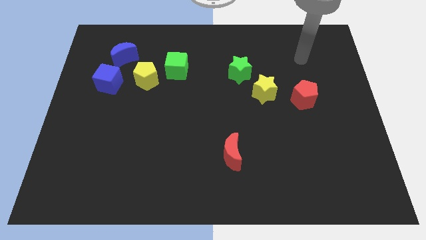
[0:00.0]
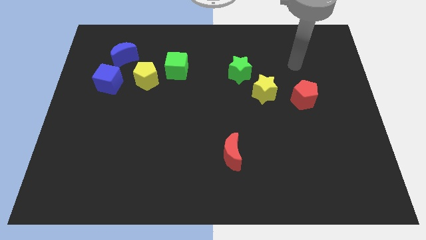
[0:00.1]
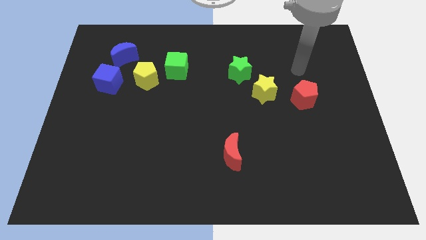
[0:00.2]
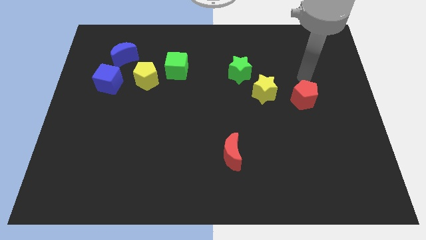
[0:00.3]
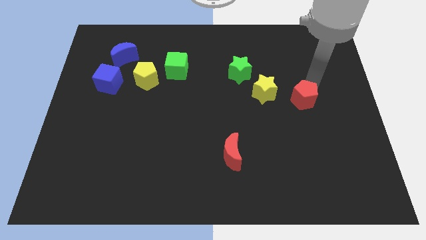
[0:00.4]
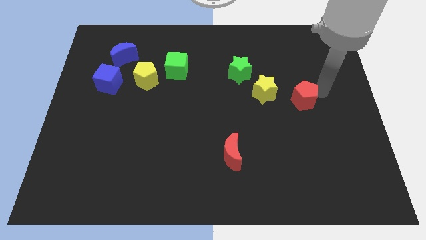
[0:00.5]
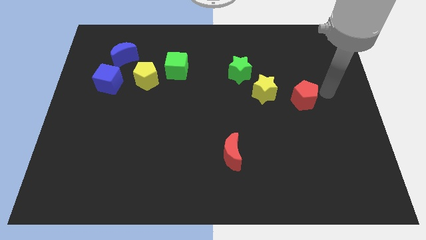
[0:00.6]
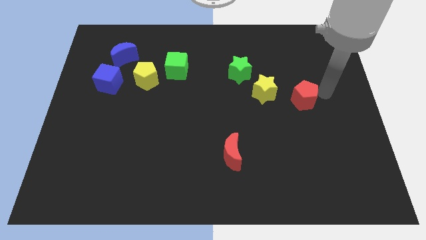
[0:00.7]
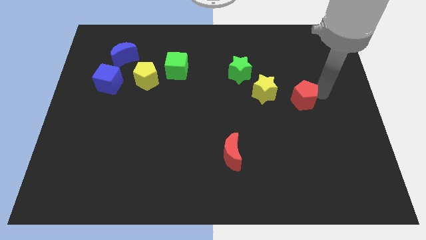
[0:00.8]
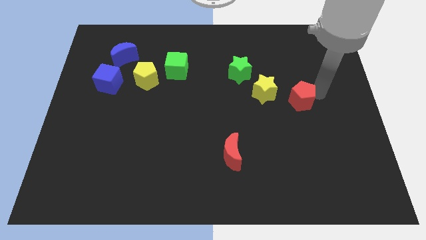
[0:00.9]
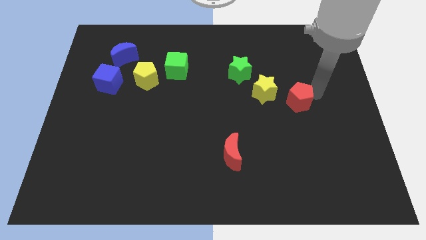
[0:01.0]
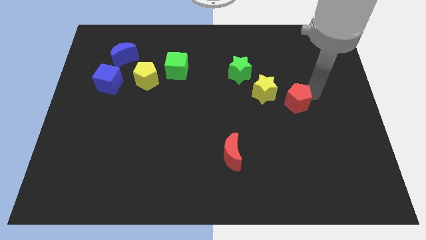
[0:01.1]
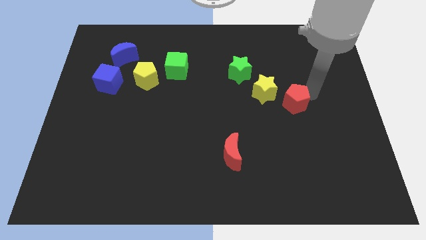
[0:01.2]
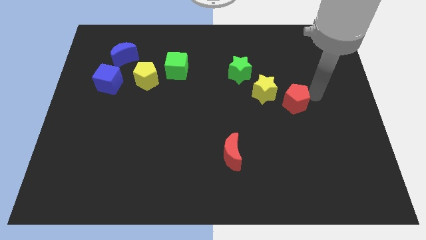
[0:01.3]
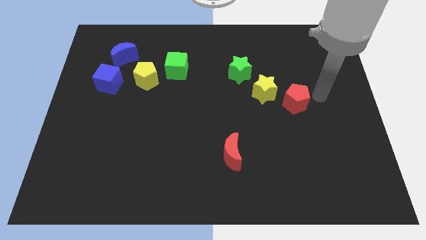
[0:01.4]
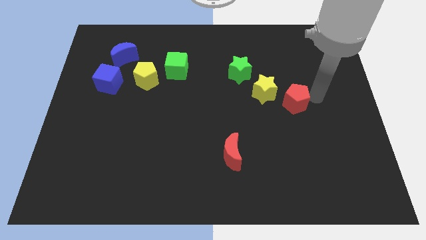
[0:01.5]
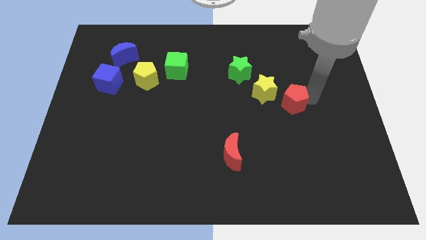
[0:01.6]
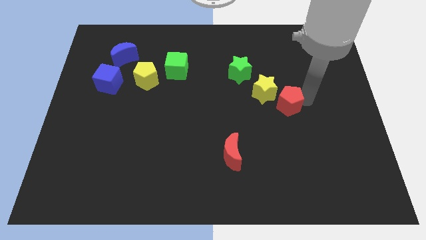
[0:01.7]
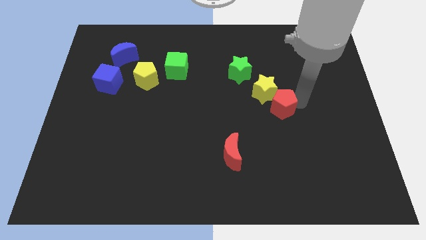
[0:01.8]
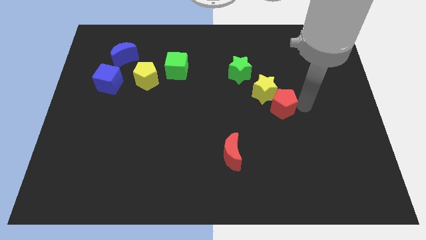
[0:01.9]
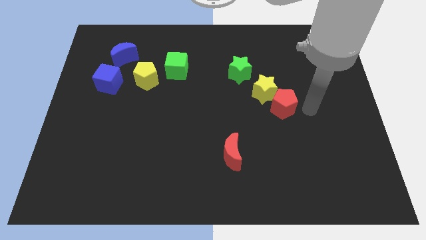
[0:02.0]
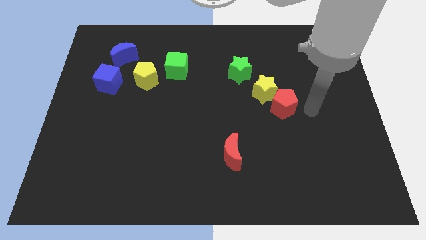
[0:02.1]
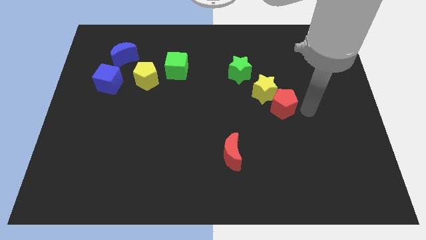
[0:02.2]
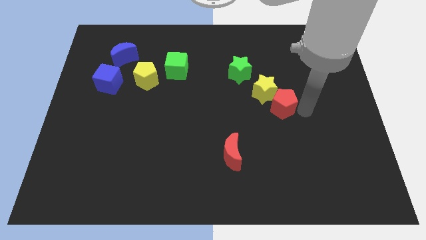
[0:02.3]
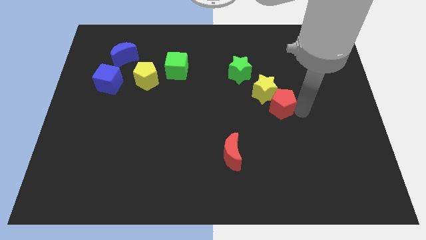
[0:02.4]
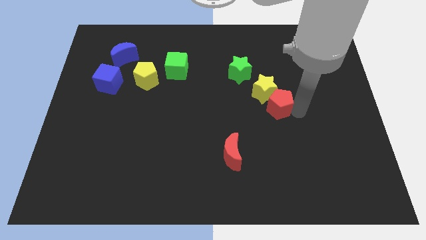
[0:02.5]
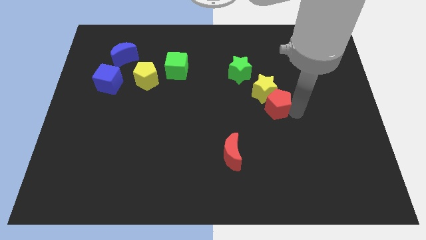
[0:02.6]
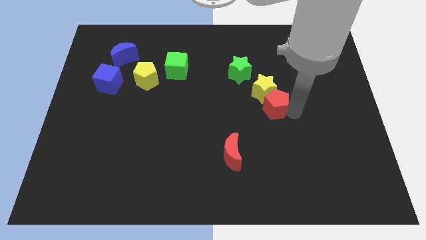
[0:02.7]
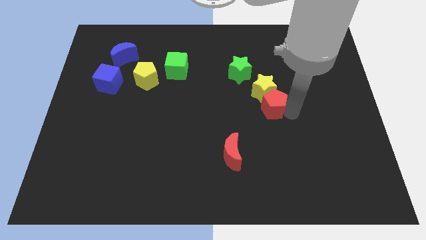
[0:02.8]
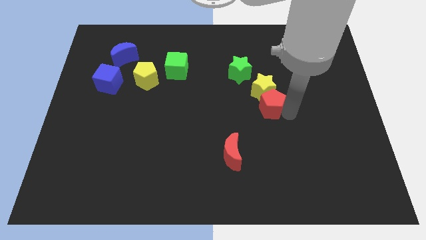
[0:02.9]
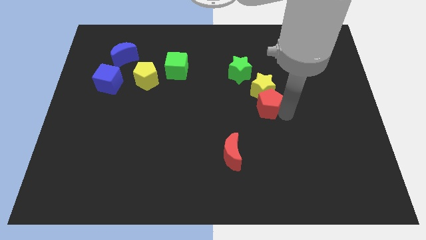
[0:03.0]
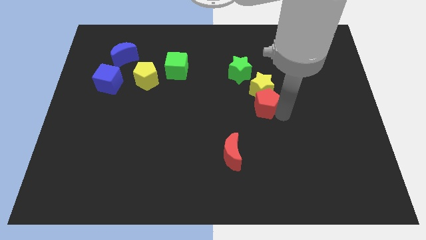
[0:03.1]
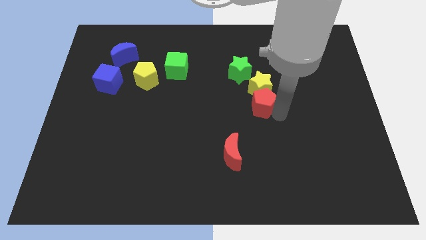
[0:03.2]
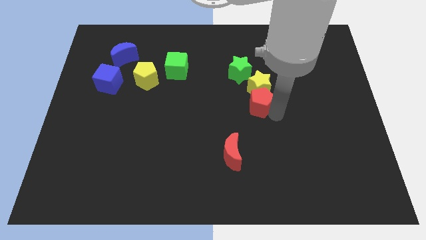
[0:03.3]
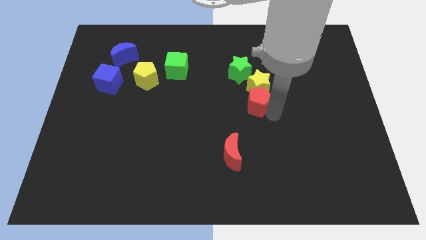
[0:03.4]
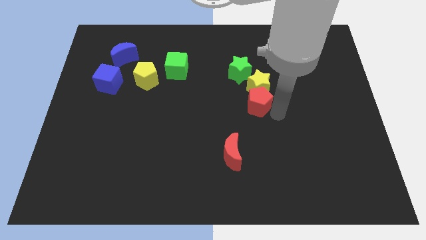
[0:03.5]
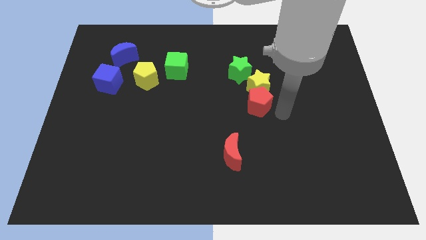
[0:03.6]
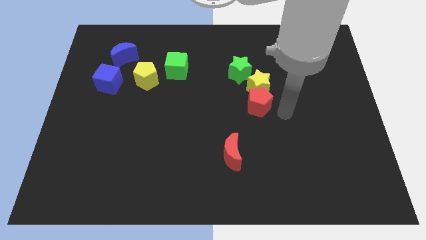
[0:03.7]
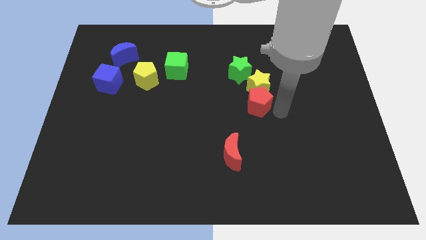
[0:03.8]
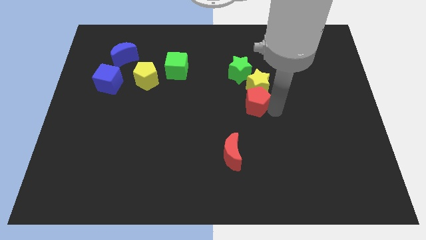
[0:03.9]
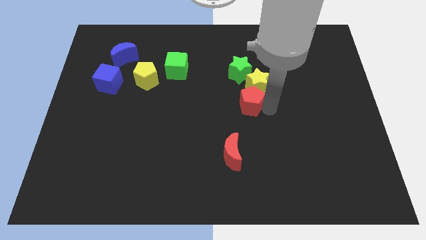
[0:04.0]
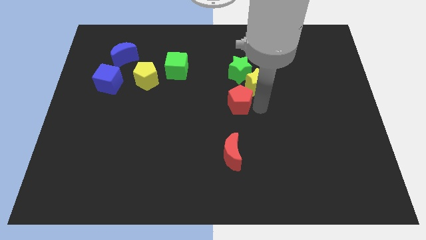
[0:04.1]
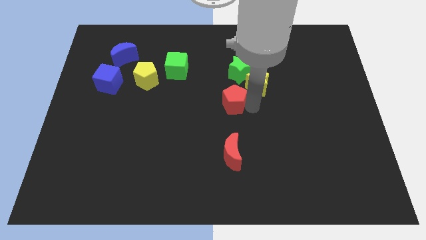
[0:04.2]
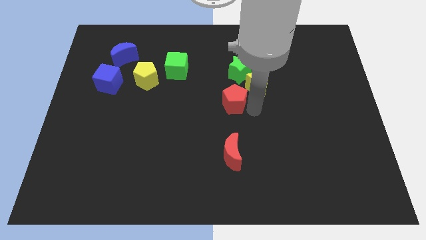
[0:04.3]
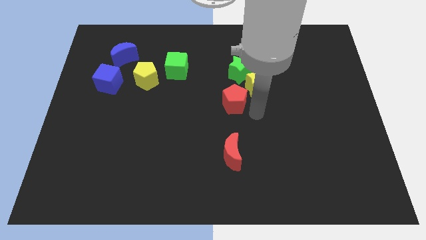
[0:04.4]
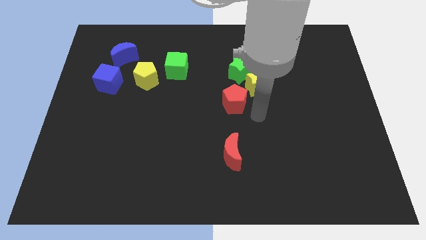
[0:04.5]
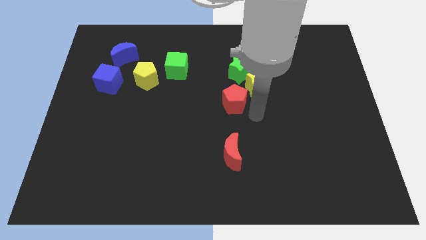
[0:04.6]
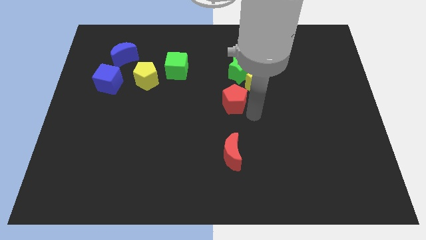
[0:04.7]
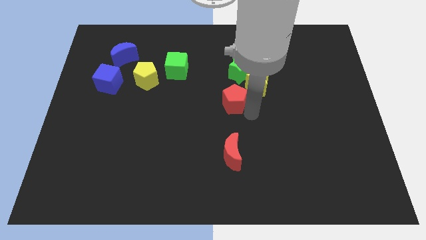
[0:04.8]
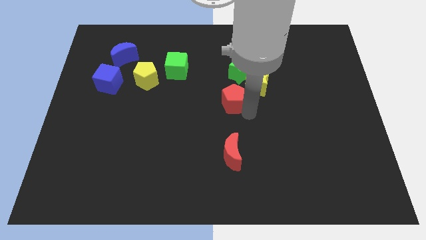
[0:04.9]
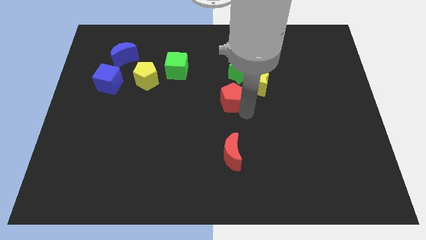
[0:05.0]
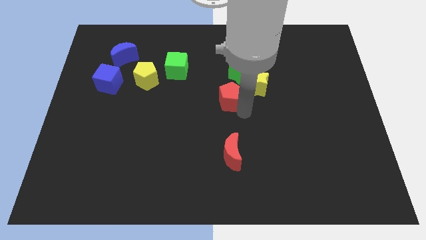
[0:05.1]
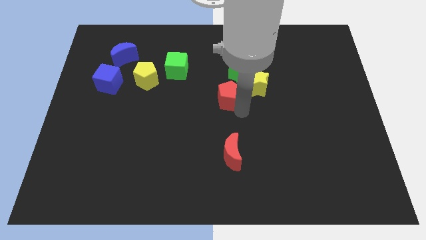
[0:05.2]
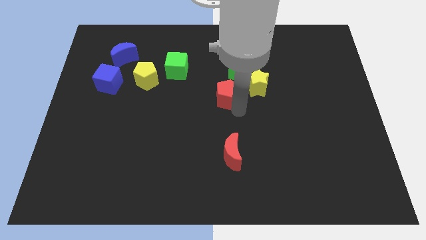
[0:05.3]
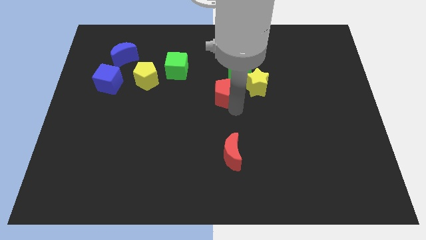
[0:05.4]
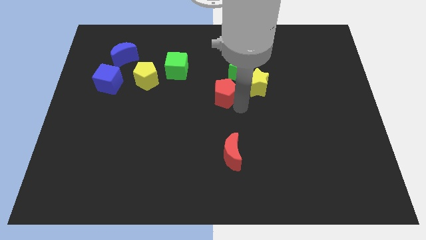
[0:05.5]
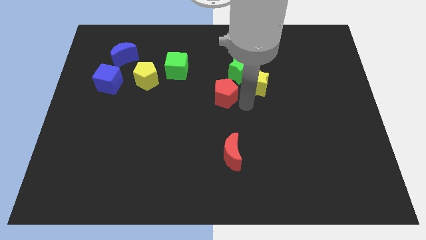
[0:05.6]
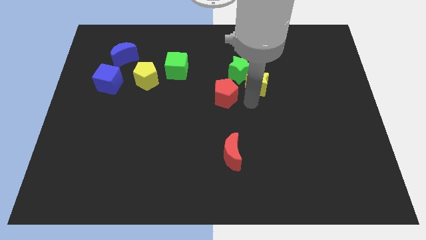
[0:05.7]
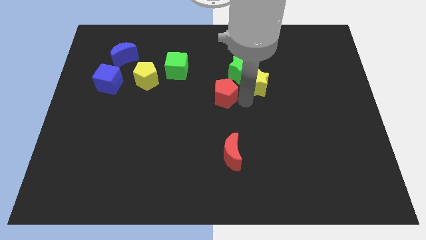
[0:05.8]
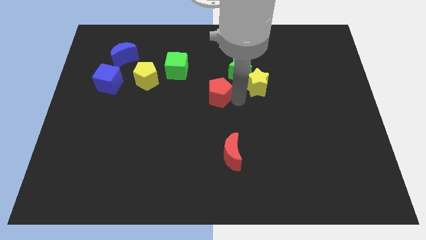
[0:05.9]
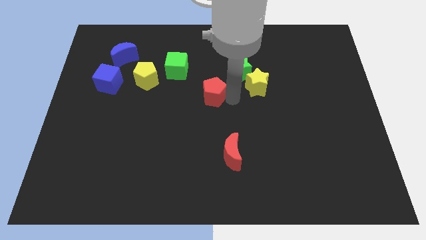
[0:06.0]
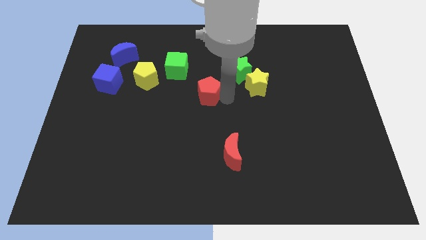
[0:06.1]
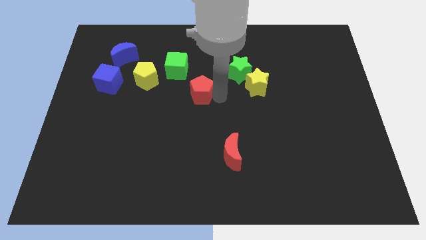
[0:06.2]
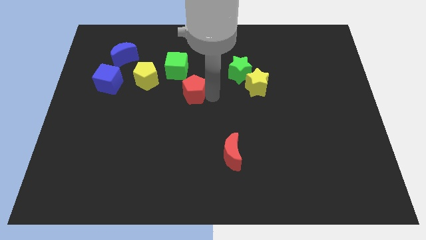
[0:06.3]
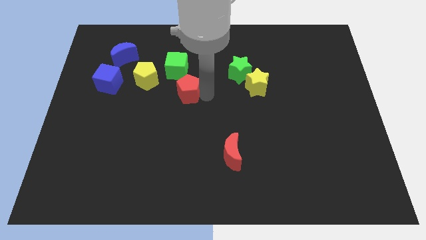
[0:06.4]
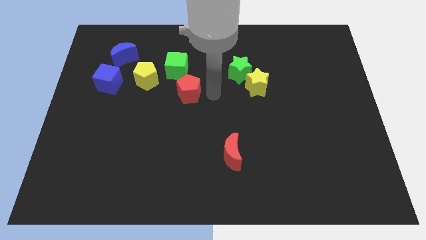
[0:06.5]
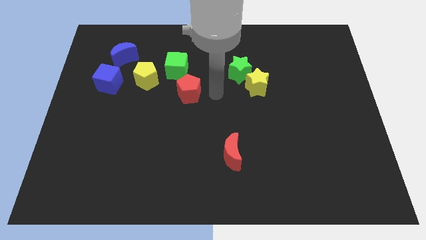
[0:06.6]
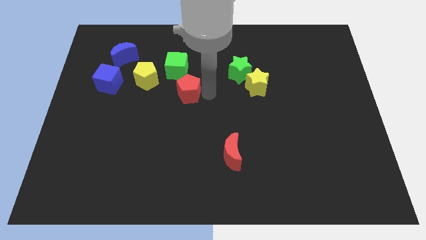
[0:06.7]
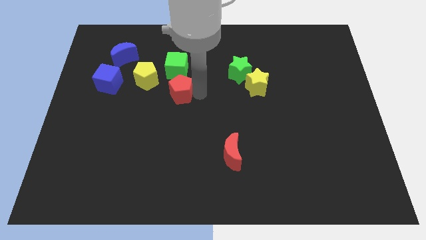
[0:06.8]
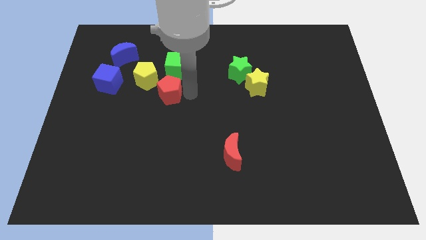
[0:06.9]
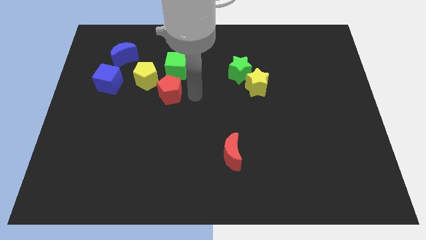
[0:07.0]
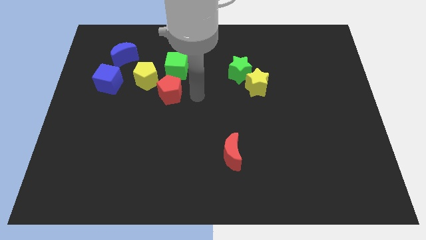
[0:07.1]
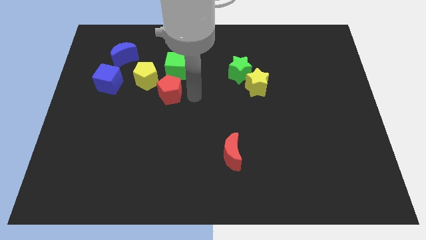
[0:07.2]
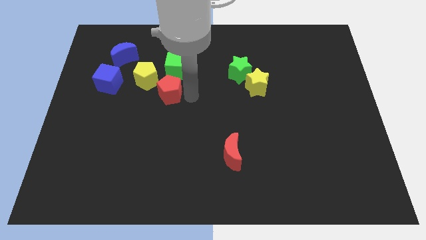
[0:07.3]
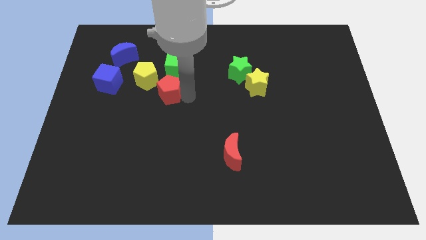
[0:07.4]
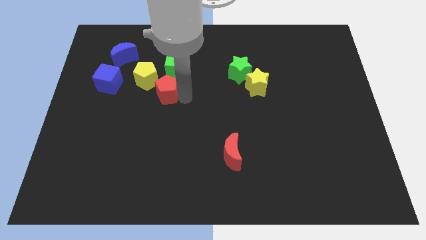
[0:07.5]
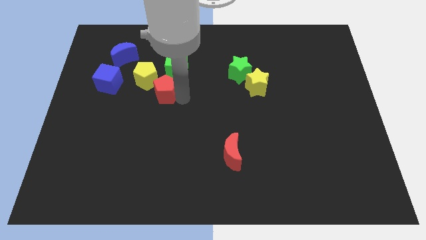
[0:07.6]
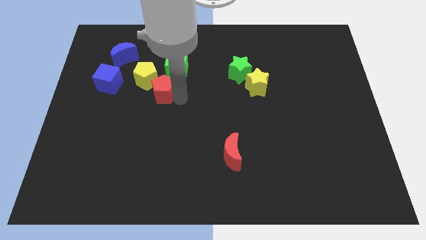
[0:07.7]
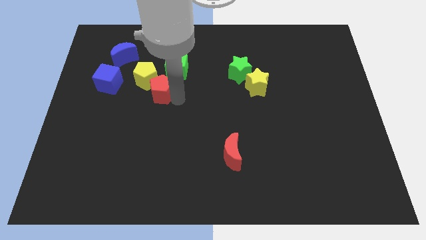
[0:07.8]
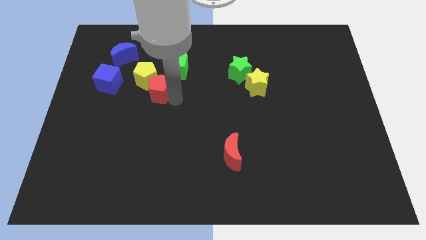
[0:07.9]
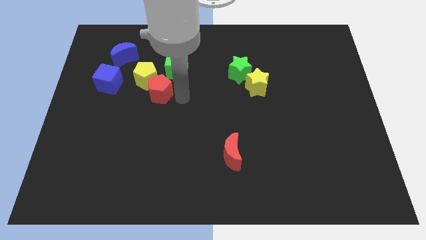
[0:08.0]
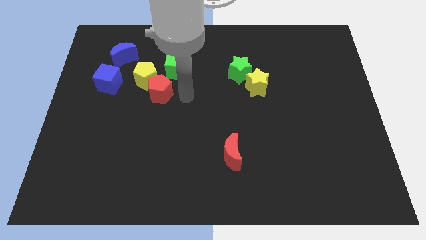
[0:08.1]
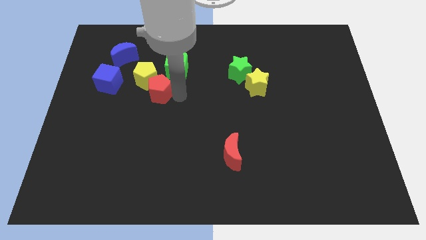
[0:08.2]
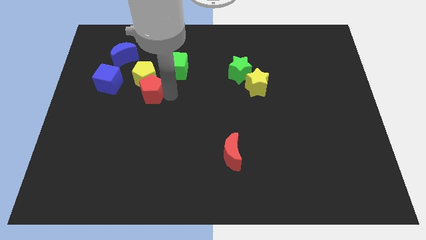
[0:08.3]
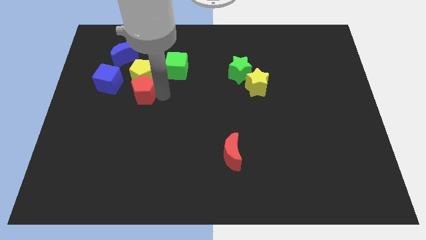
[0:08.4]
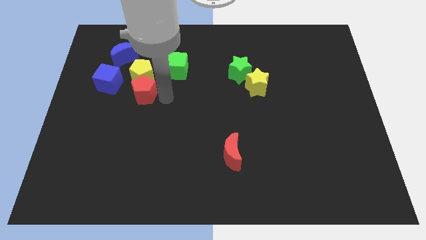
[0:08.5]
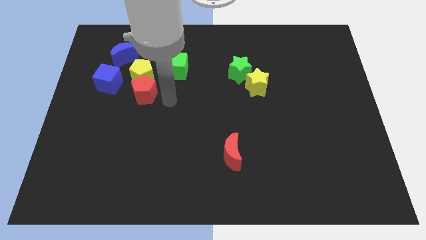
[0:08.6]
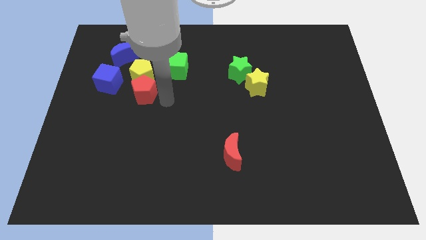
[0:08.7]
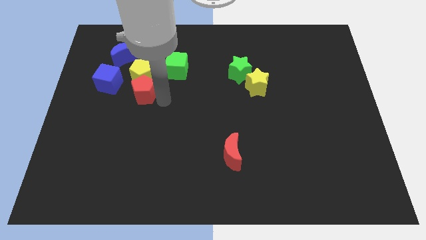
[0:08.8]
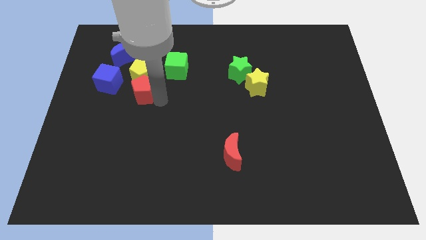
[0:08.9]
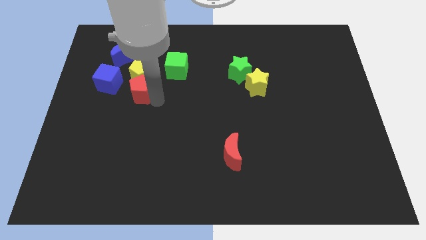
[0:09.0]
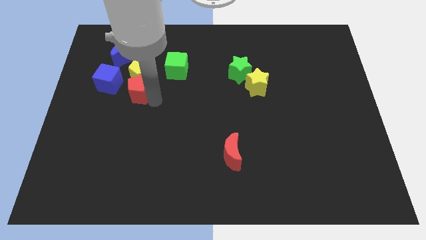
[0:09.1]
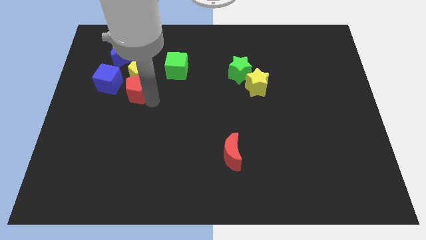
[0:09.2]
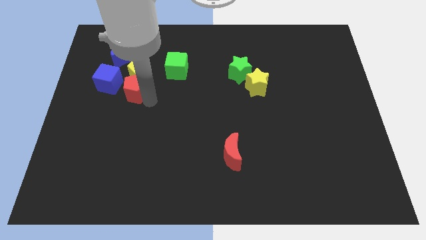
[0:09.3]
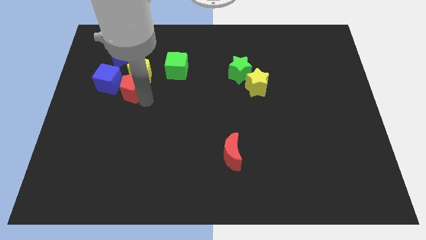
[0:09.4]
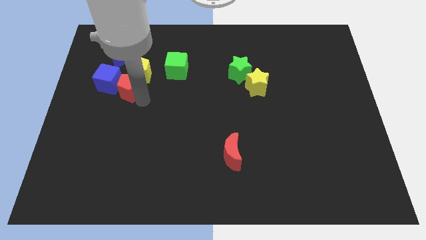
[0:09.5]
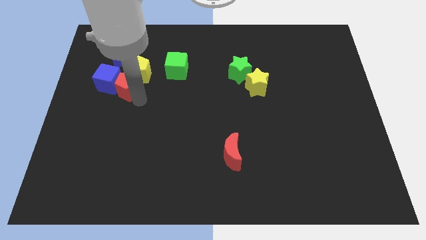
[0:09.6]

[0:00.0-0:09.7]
slide the red pentagon next to the blue cube
